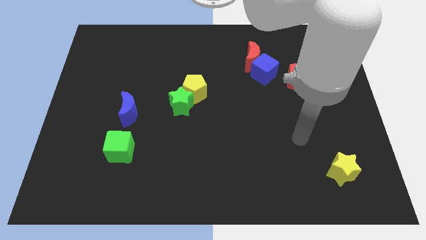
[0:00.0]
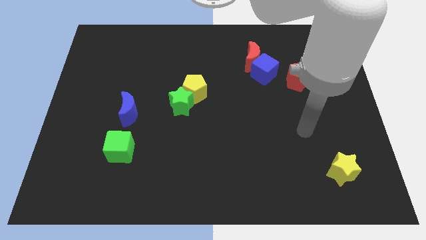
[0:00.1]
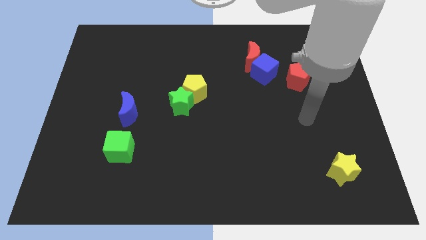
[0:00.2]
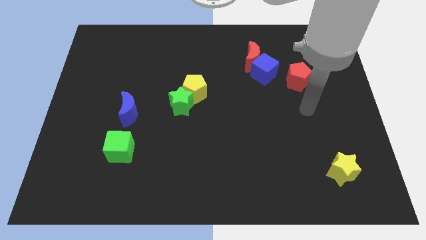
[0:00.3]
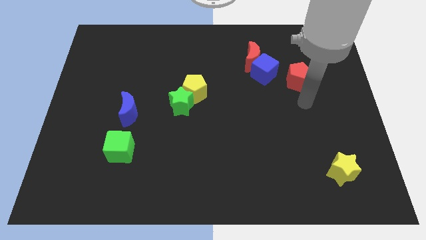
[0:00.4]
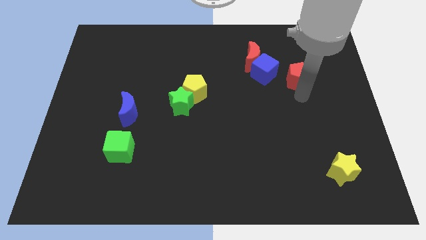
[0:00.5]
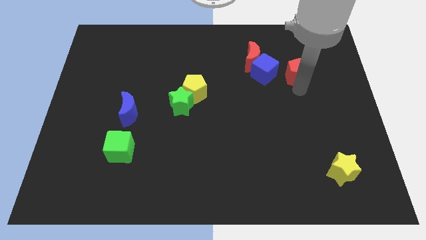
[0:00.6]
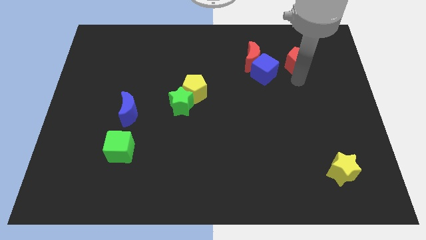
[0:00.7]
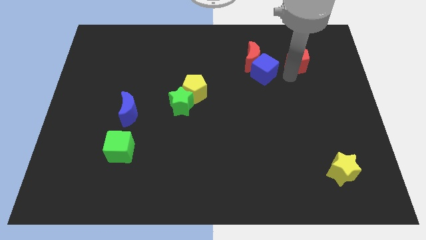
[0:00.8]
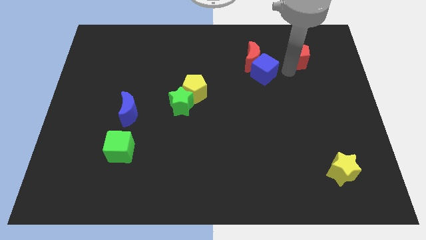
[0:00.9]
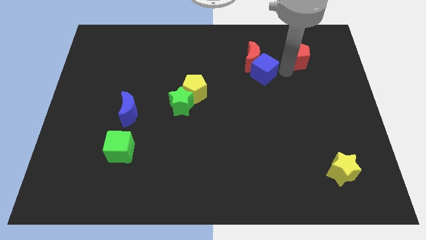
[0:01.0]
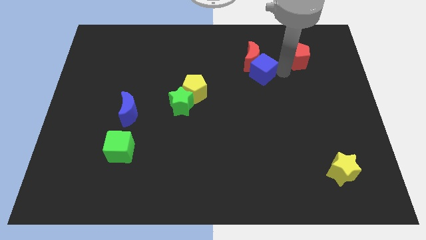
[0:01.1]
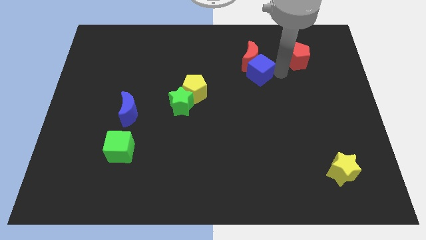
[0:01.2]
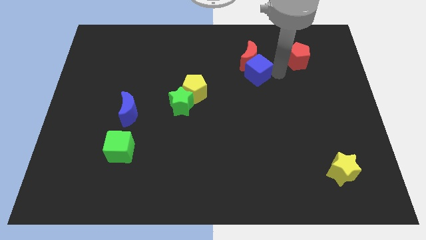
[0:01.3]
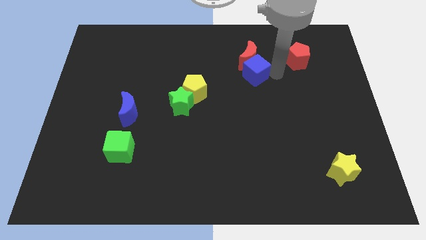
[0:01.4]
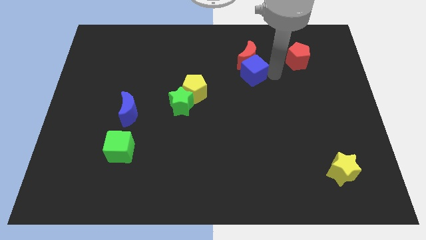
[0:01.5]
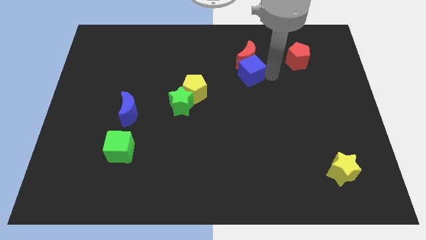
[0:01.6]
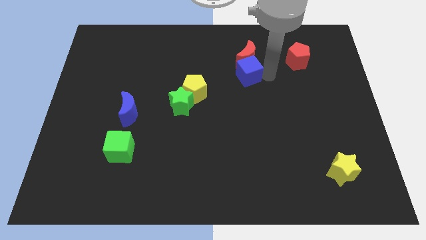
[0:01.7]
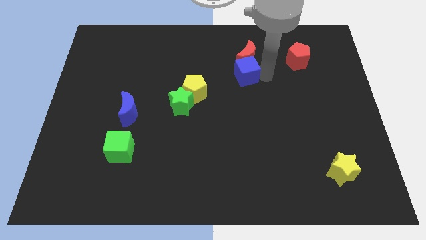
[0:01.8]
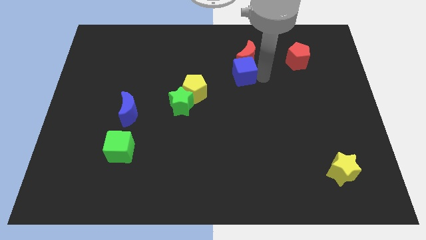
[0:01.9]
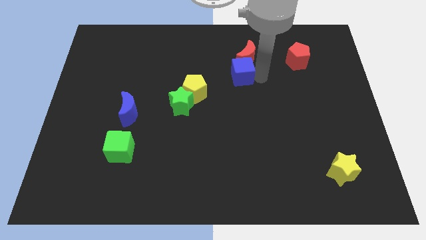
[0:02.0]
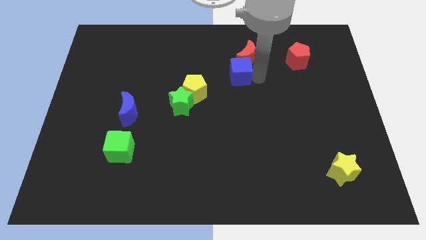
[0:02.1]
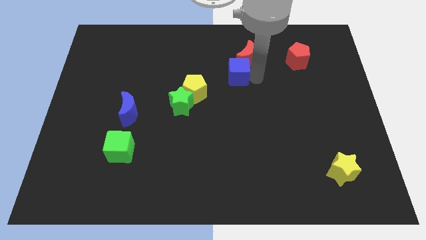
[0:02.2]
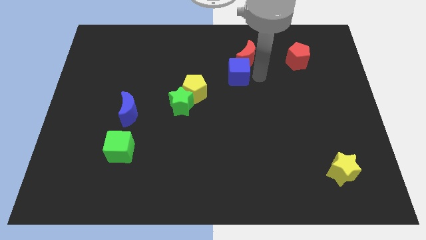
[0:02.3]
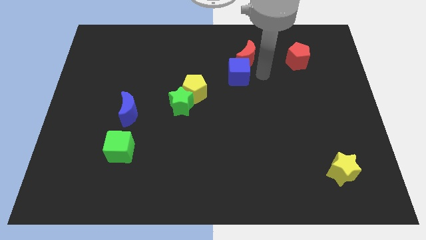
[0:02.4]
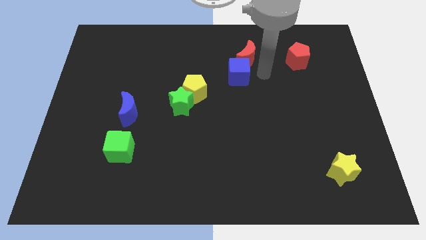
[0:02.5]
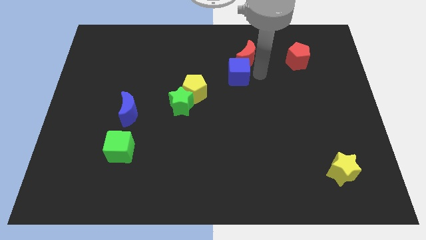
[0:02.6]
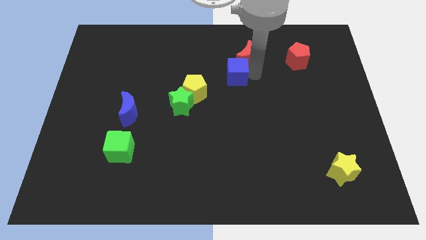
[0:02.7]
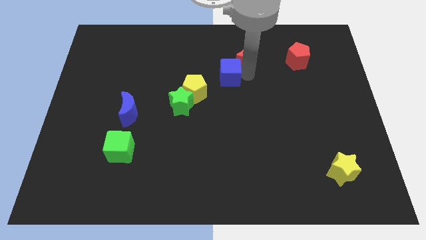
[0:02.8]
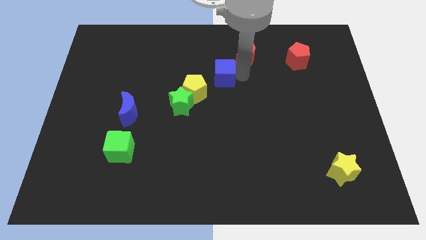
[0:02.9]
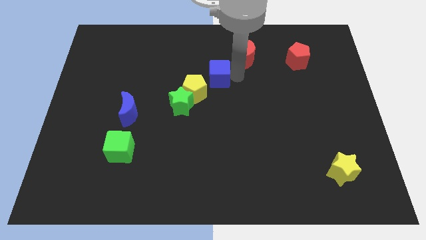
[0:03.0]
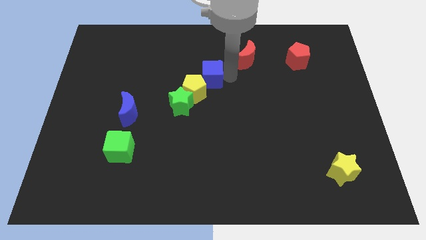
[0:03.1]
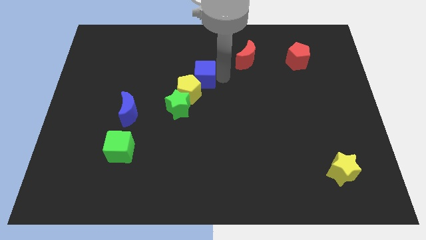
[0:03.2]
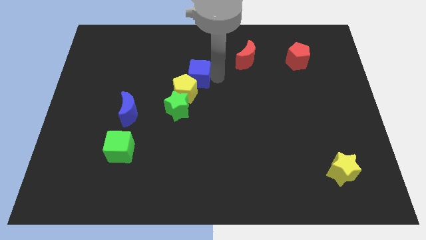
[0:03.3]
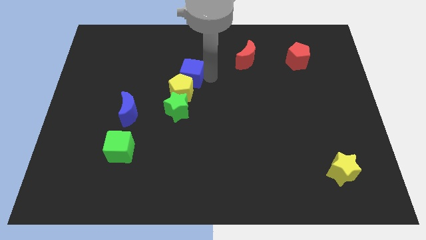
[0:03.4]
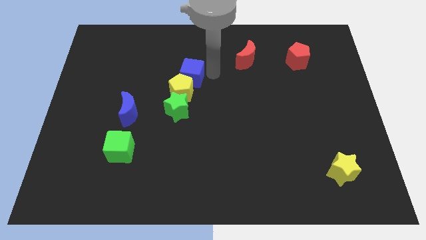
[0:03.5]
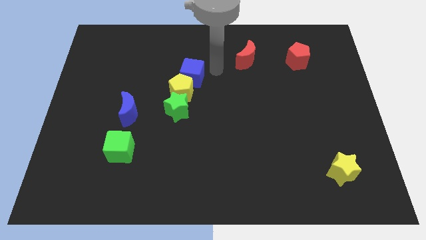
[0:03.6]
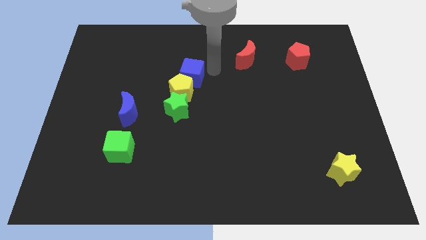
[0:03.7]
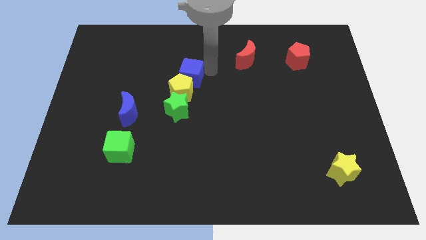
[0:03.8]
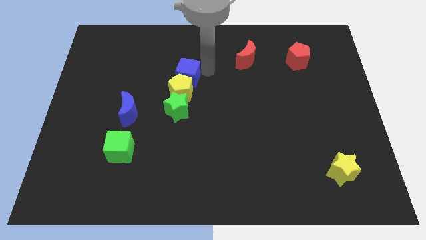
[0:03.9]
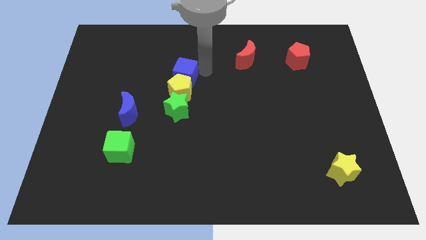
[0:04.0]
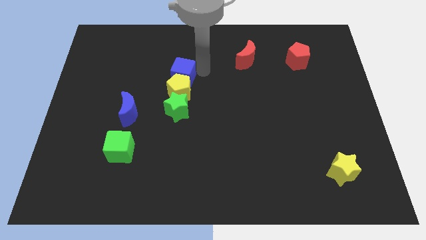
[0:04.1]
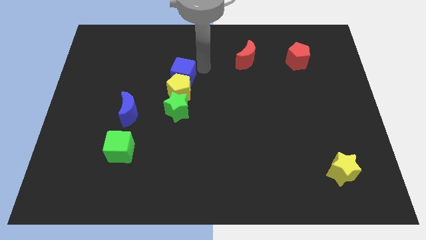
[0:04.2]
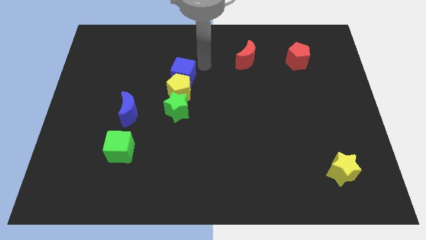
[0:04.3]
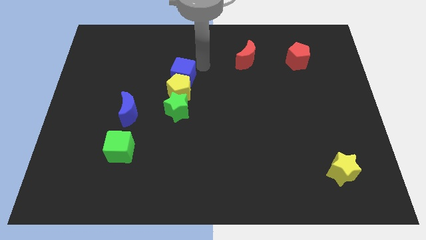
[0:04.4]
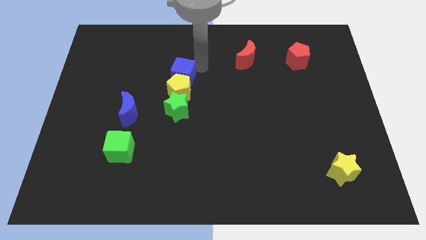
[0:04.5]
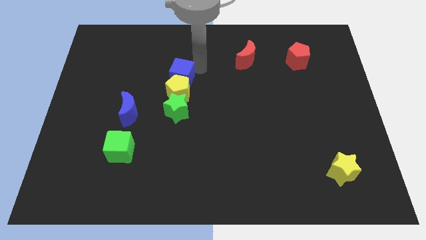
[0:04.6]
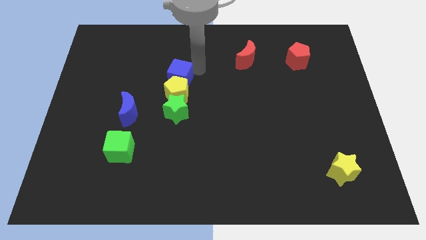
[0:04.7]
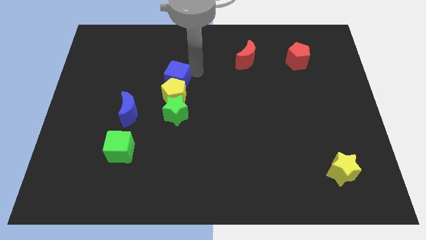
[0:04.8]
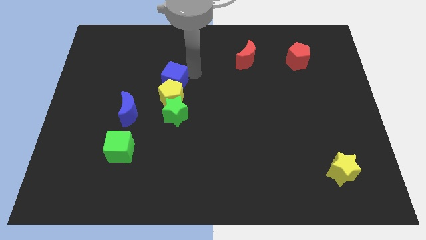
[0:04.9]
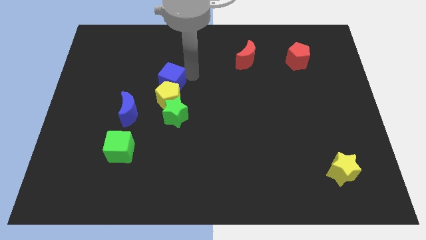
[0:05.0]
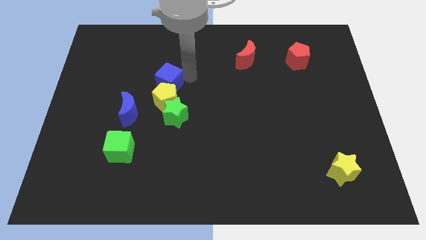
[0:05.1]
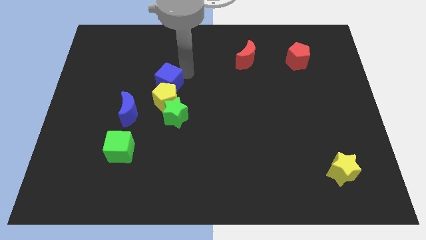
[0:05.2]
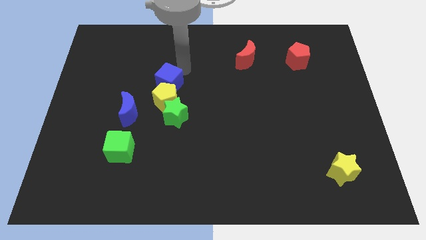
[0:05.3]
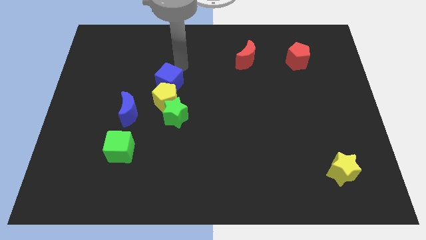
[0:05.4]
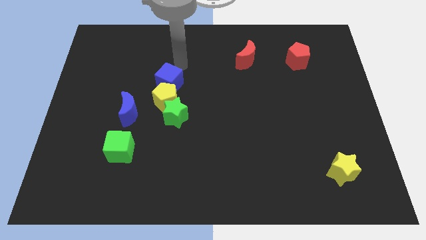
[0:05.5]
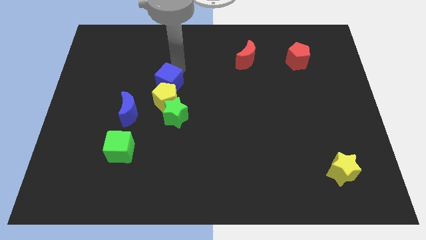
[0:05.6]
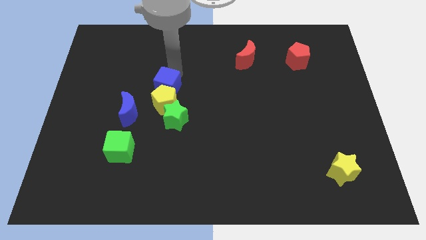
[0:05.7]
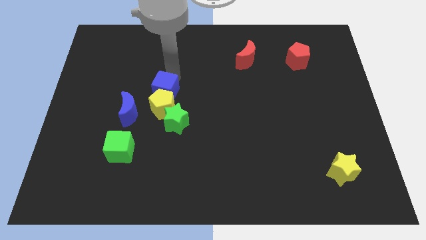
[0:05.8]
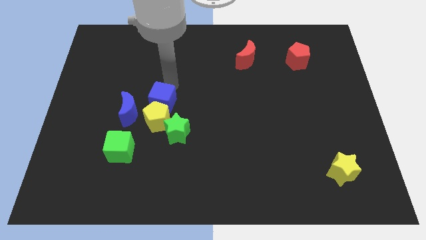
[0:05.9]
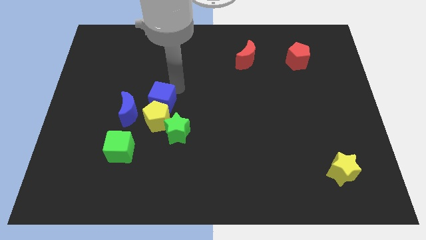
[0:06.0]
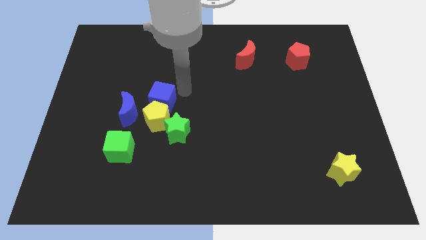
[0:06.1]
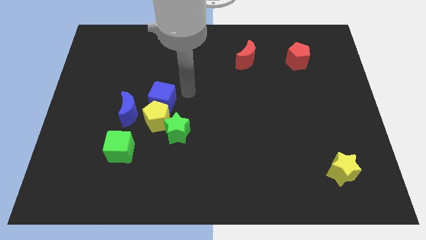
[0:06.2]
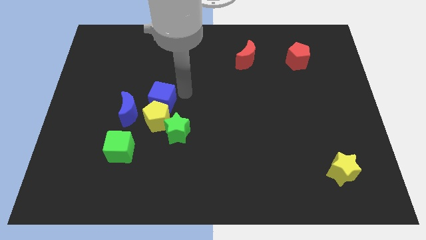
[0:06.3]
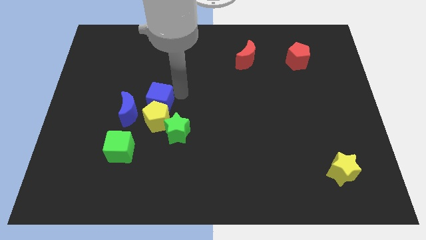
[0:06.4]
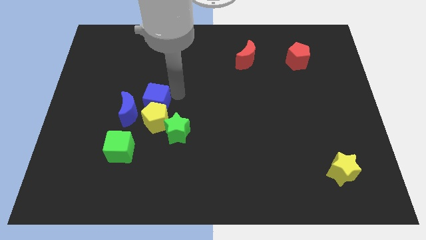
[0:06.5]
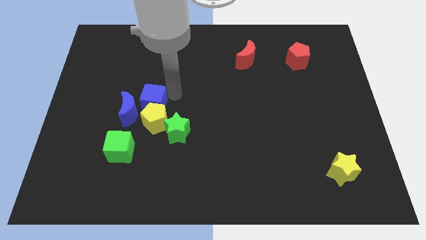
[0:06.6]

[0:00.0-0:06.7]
slide the blue cube next to the blue moon
